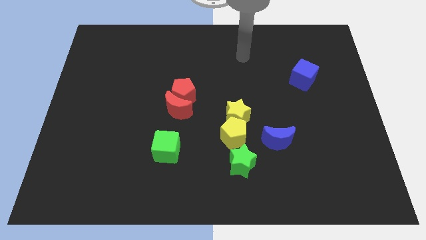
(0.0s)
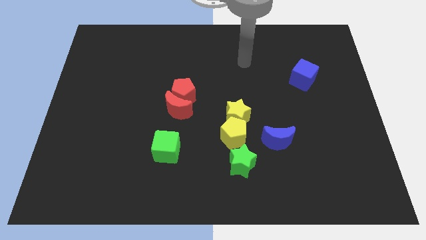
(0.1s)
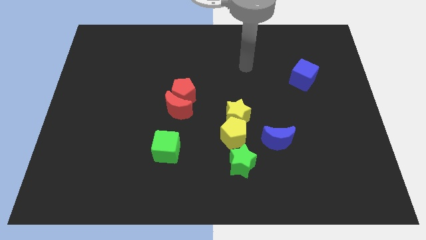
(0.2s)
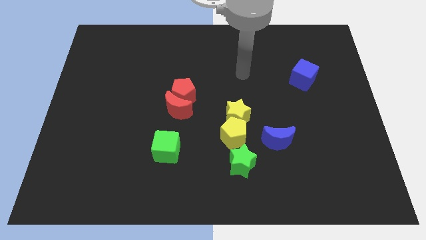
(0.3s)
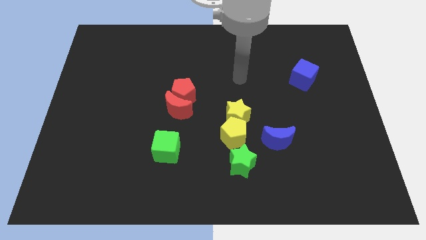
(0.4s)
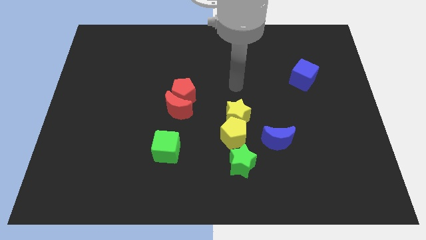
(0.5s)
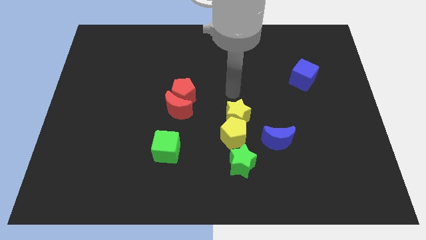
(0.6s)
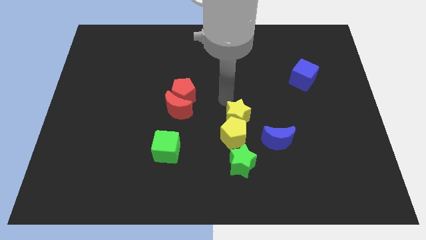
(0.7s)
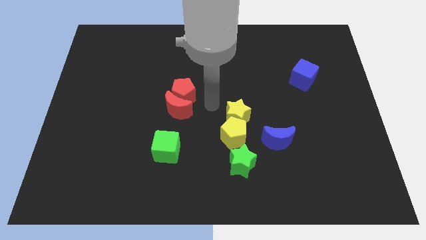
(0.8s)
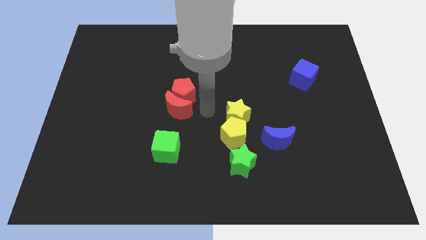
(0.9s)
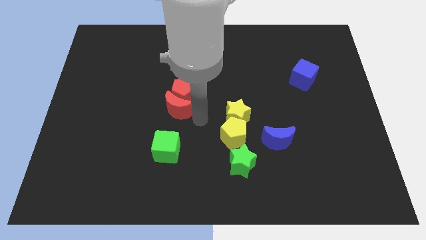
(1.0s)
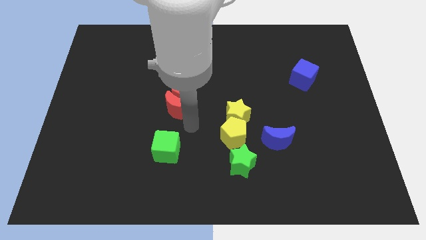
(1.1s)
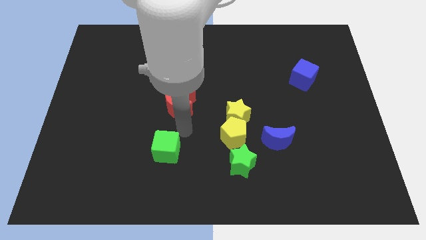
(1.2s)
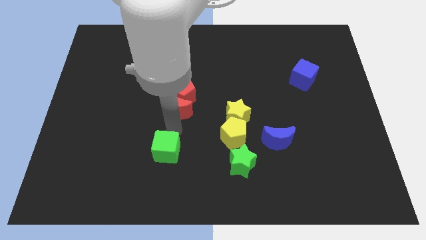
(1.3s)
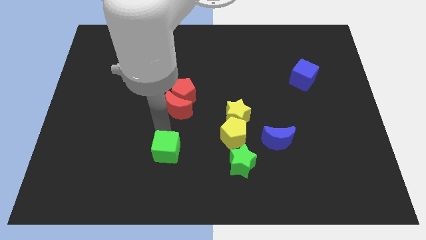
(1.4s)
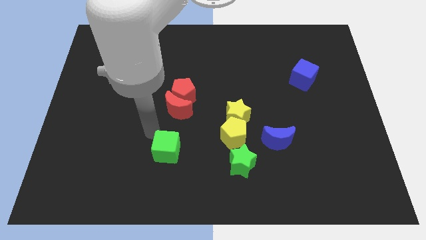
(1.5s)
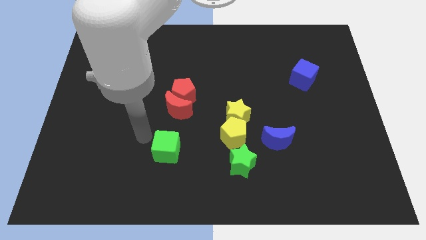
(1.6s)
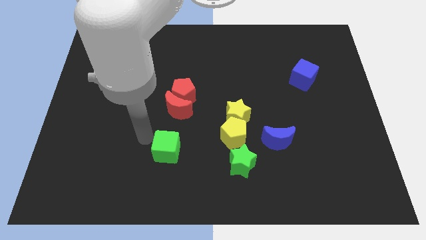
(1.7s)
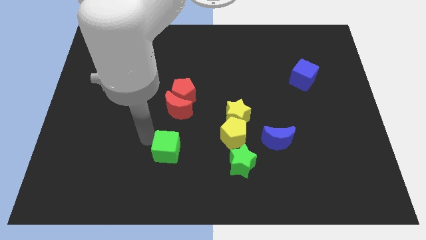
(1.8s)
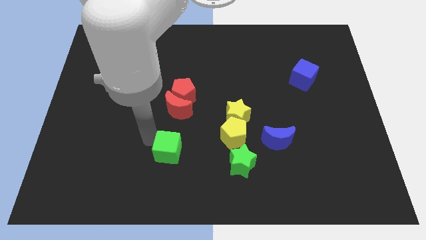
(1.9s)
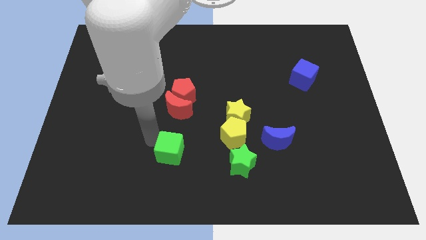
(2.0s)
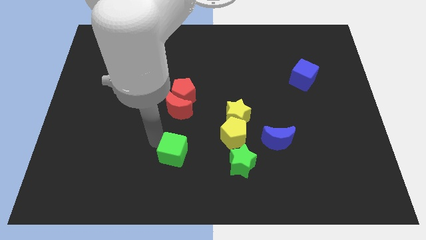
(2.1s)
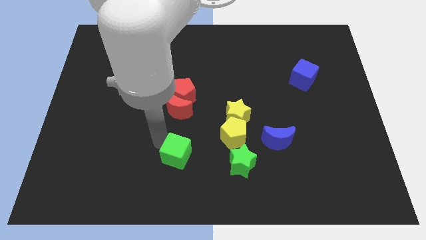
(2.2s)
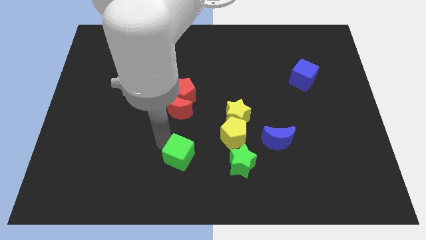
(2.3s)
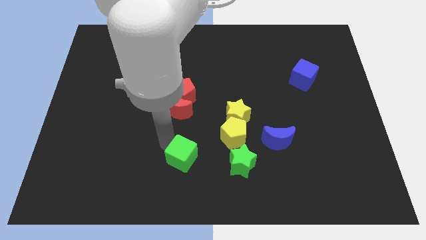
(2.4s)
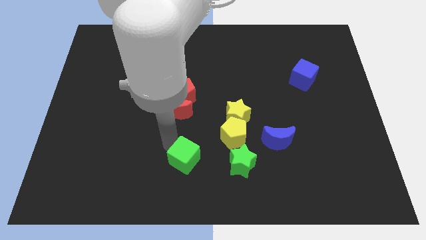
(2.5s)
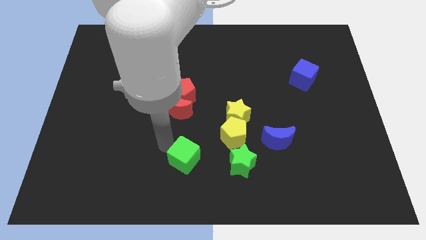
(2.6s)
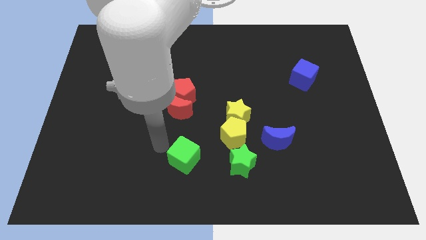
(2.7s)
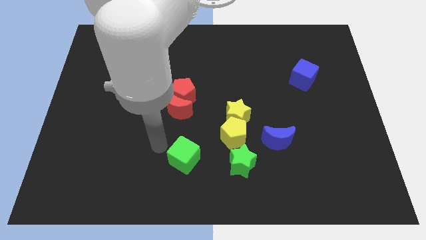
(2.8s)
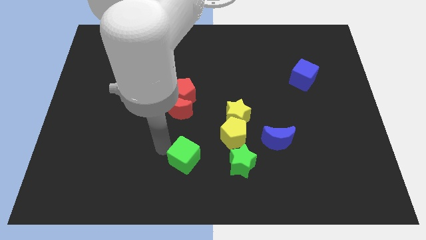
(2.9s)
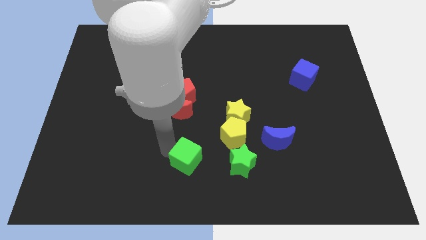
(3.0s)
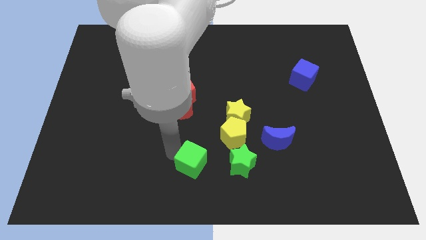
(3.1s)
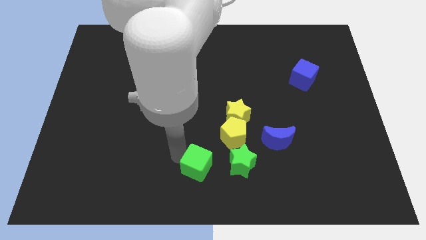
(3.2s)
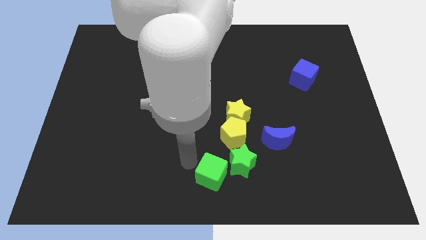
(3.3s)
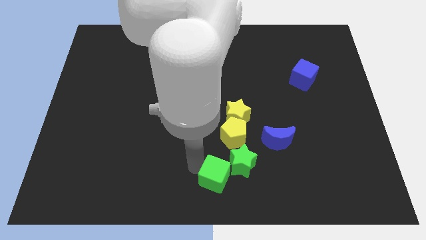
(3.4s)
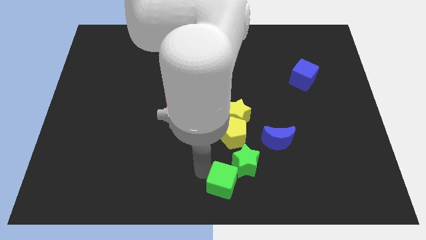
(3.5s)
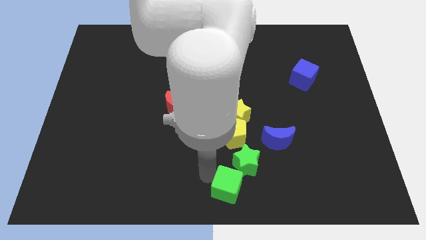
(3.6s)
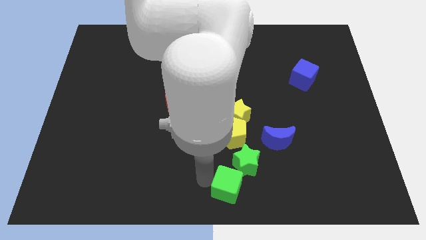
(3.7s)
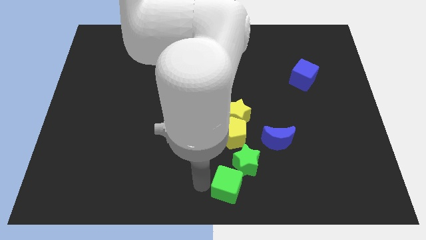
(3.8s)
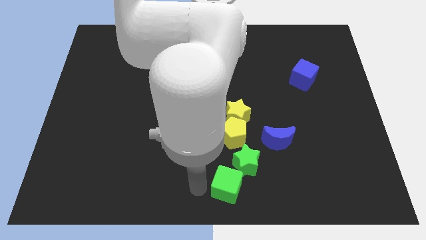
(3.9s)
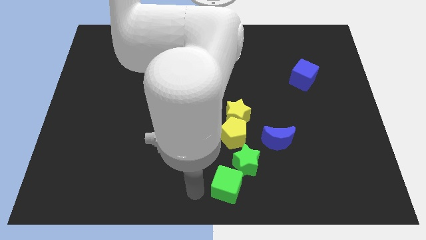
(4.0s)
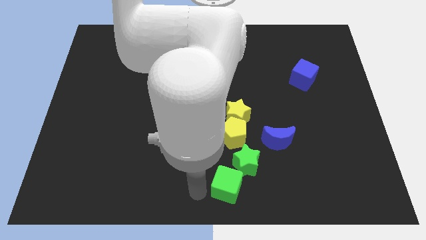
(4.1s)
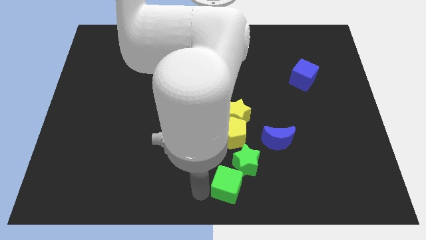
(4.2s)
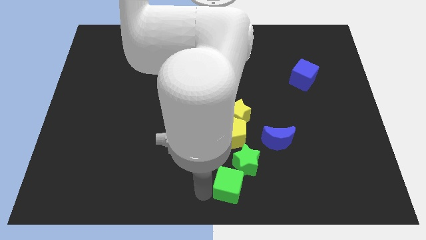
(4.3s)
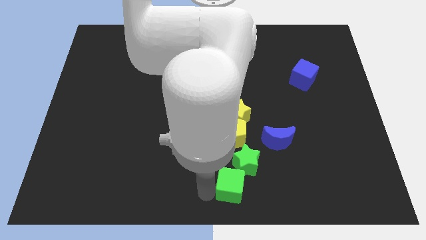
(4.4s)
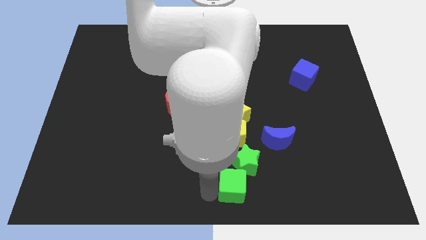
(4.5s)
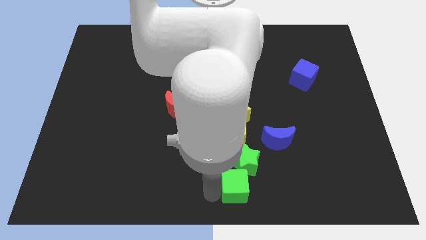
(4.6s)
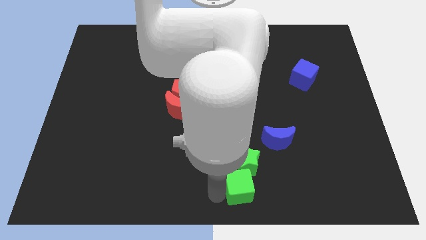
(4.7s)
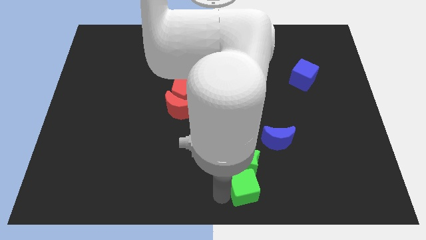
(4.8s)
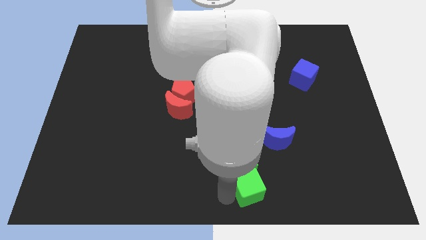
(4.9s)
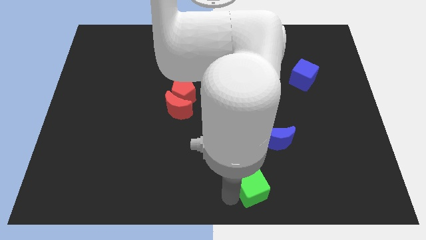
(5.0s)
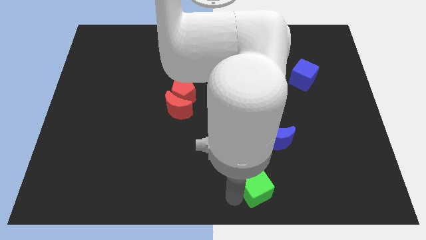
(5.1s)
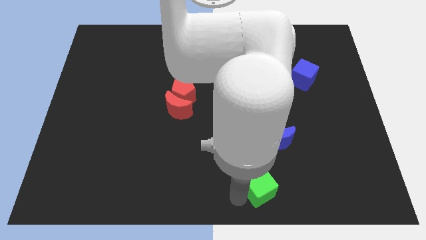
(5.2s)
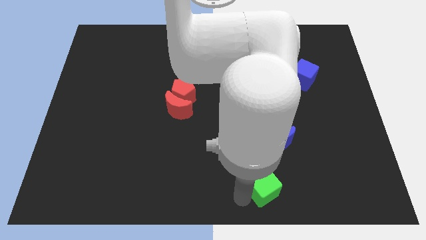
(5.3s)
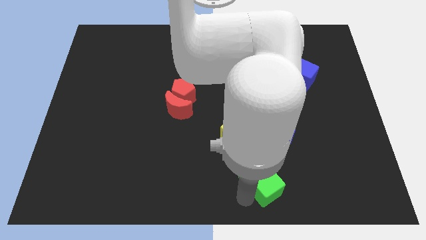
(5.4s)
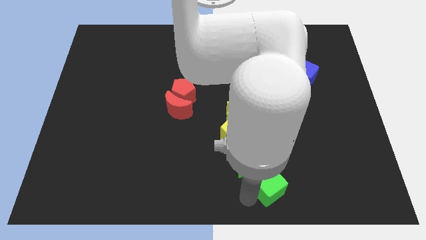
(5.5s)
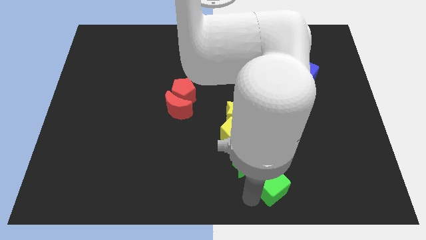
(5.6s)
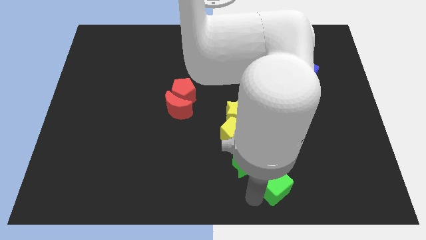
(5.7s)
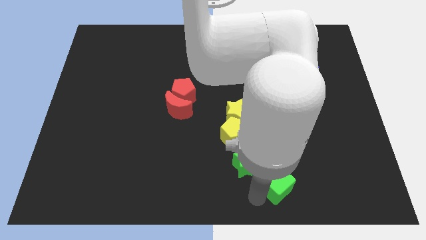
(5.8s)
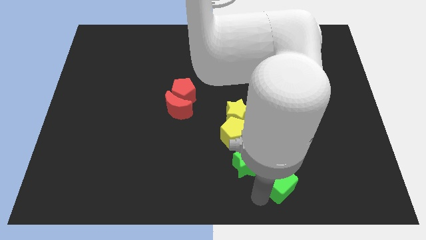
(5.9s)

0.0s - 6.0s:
move the green cube to the right

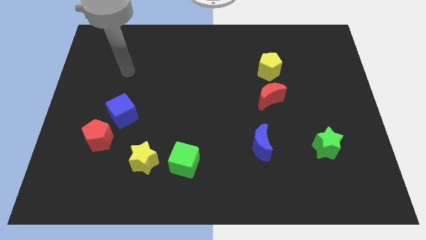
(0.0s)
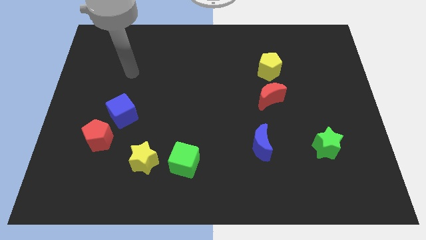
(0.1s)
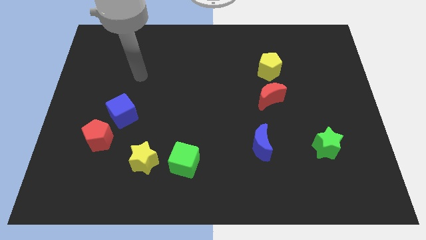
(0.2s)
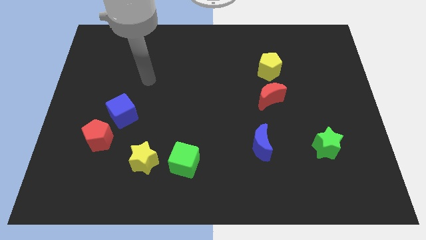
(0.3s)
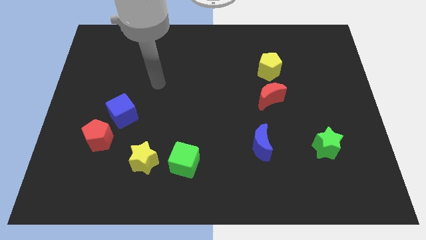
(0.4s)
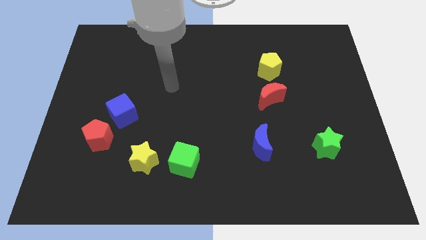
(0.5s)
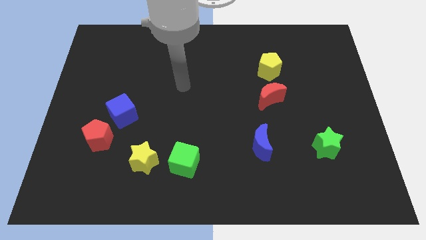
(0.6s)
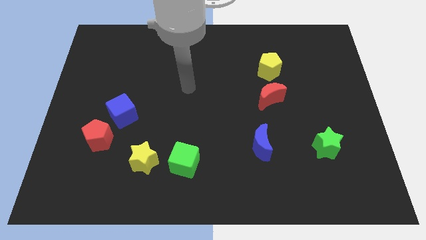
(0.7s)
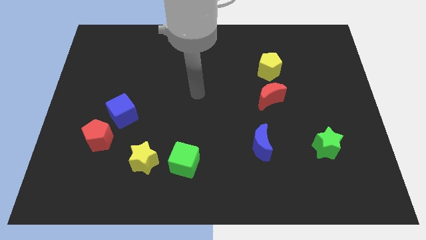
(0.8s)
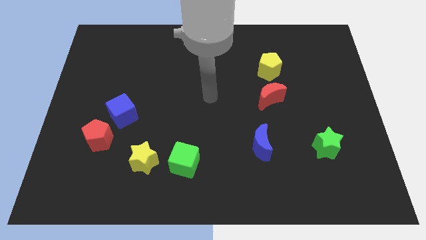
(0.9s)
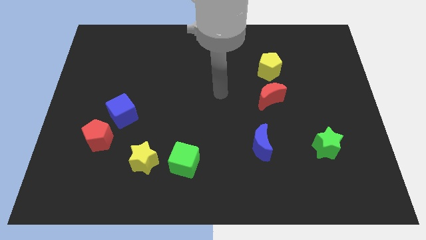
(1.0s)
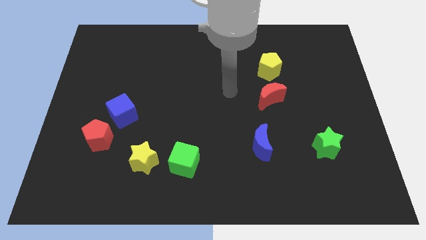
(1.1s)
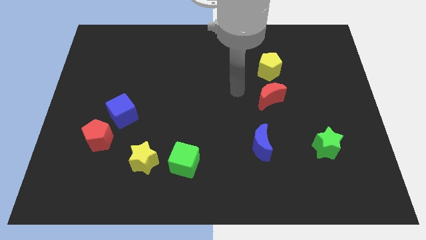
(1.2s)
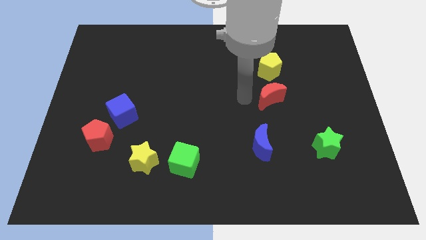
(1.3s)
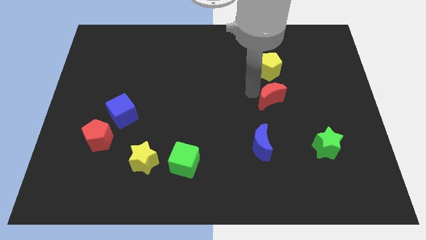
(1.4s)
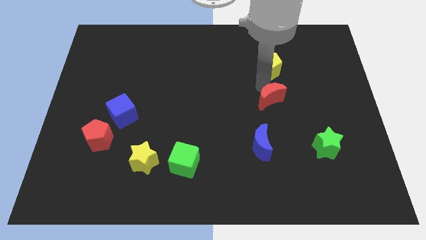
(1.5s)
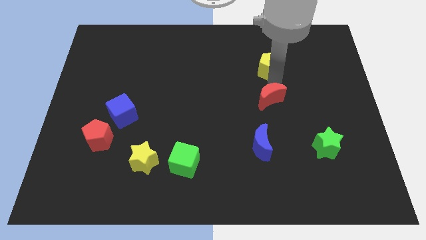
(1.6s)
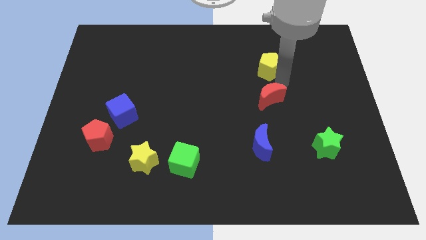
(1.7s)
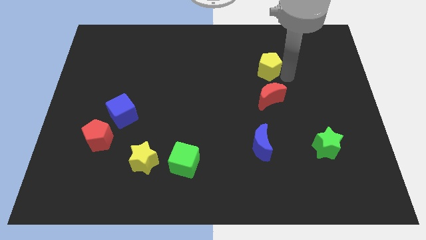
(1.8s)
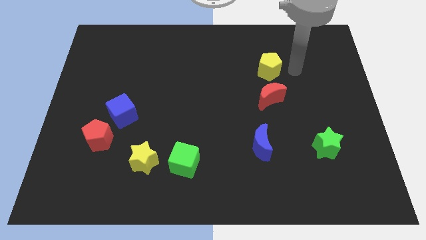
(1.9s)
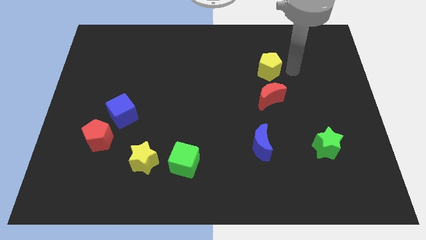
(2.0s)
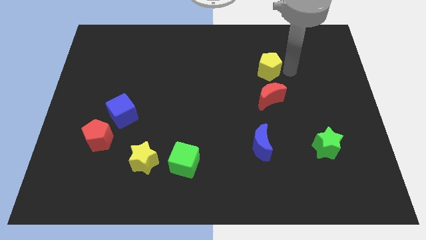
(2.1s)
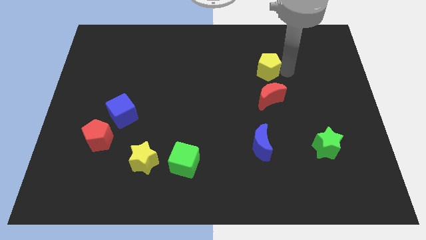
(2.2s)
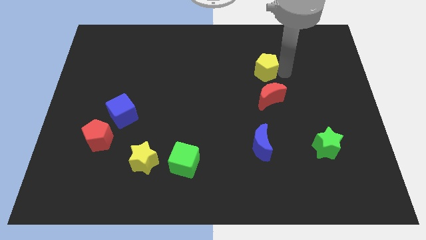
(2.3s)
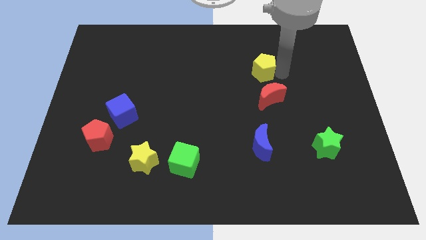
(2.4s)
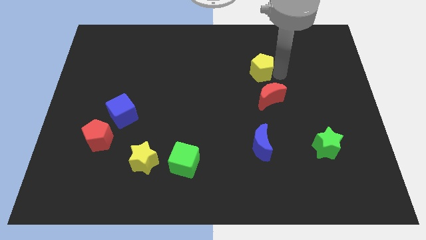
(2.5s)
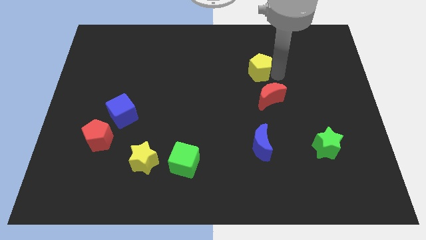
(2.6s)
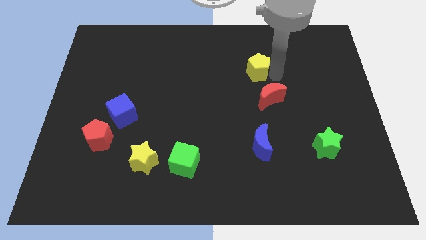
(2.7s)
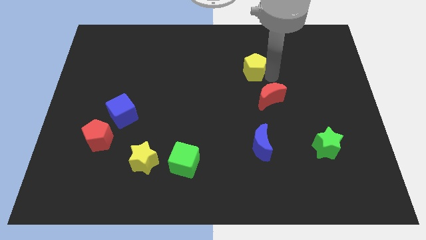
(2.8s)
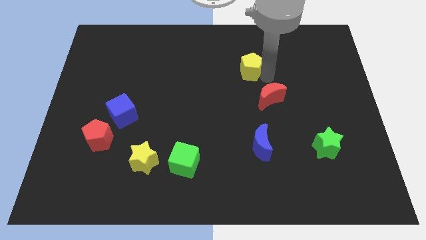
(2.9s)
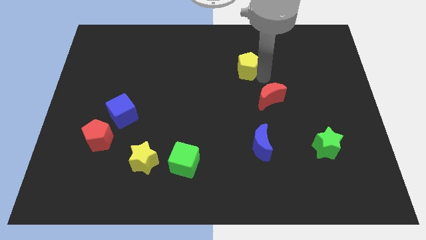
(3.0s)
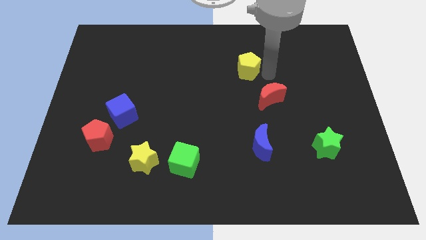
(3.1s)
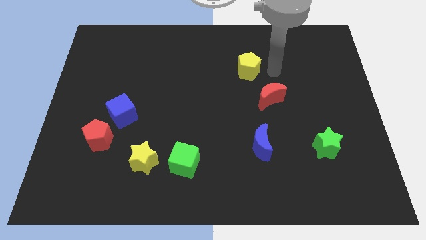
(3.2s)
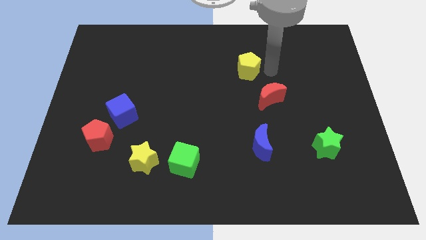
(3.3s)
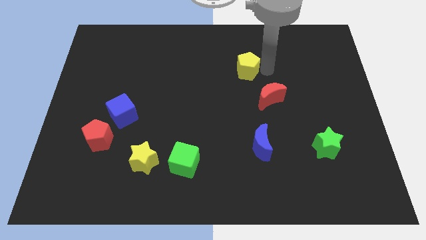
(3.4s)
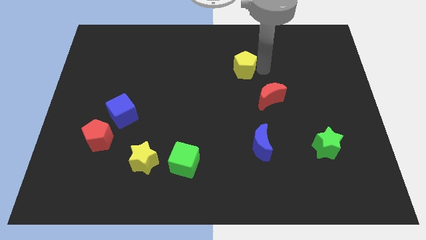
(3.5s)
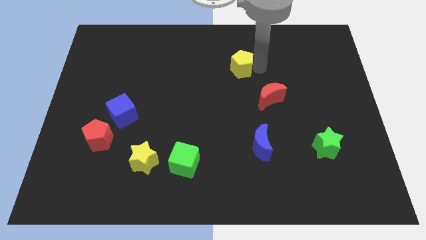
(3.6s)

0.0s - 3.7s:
move the yellow pentagon a bit to the left
